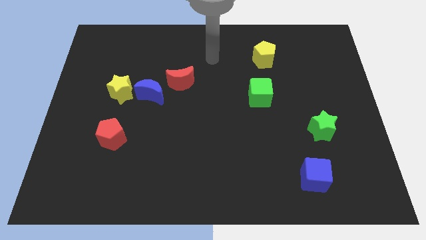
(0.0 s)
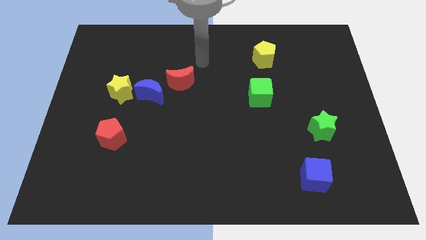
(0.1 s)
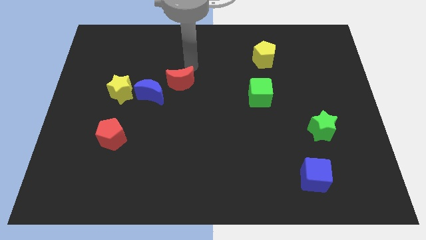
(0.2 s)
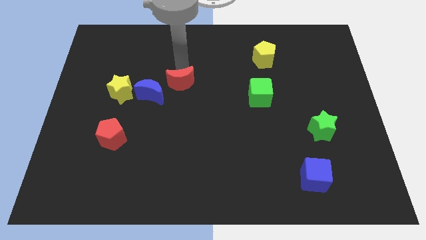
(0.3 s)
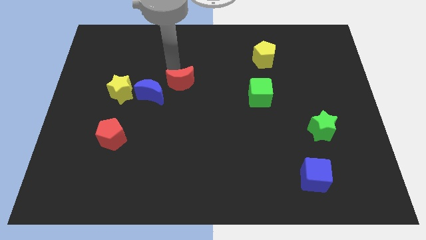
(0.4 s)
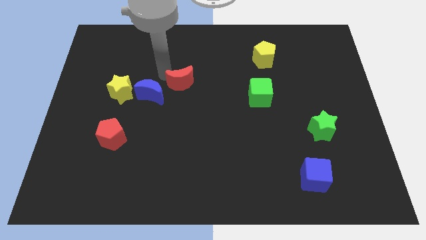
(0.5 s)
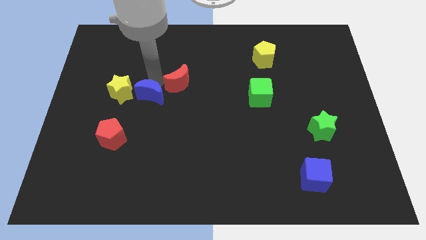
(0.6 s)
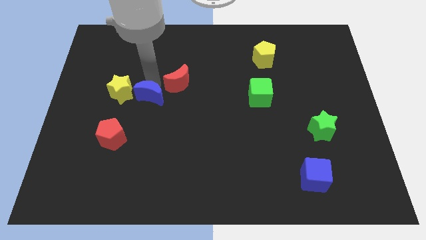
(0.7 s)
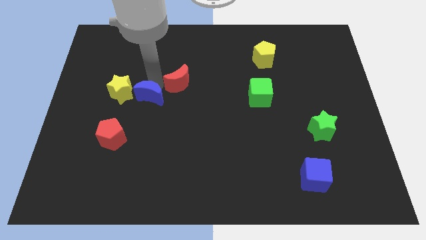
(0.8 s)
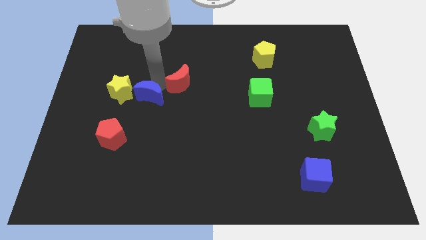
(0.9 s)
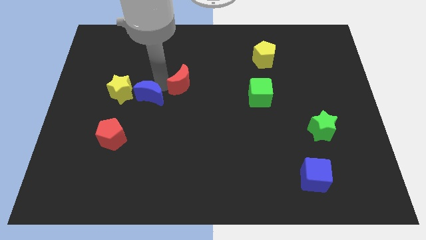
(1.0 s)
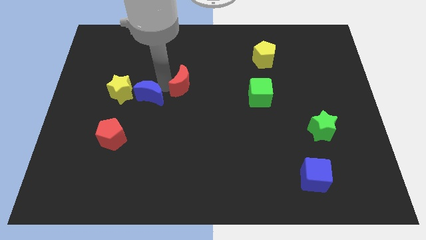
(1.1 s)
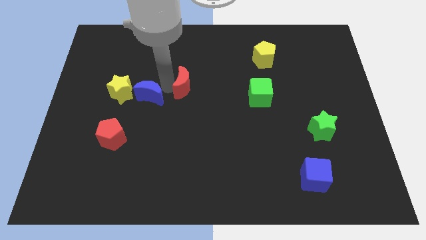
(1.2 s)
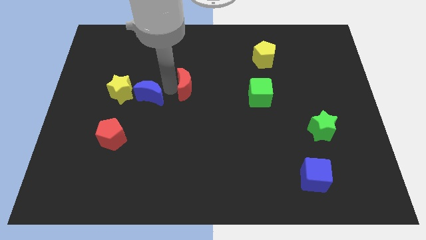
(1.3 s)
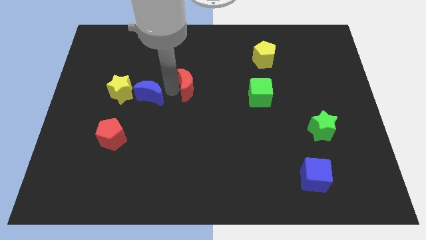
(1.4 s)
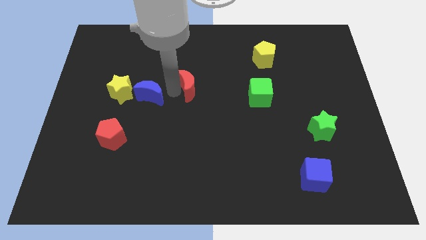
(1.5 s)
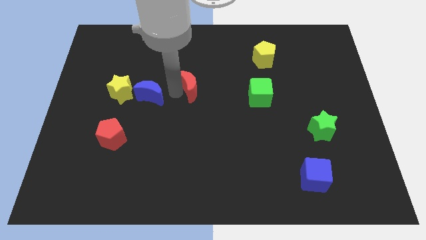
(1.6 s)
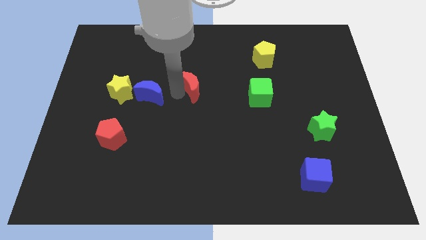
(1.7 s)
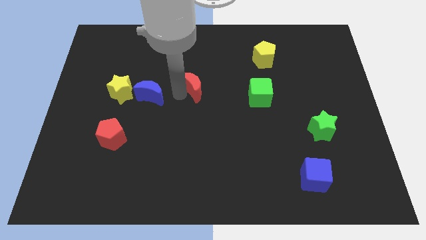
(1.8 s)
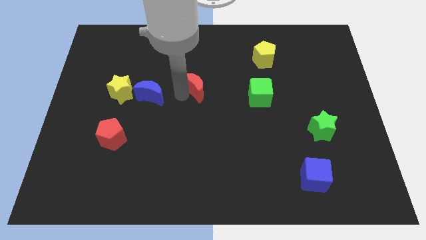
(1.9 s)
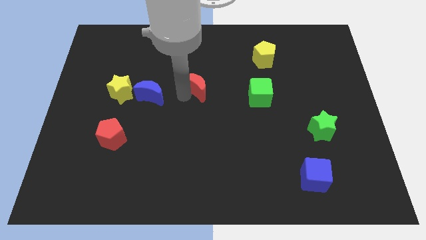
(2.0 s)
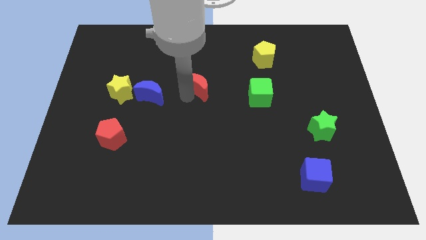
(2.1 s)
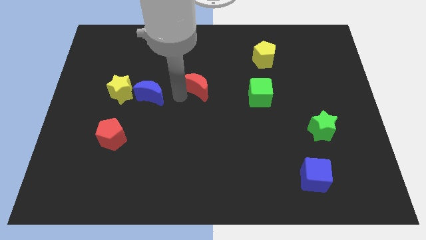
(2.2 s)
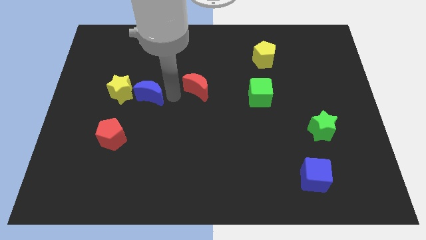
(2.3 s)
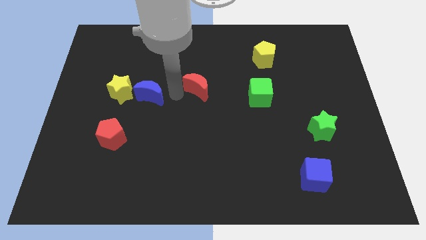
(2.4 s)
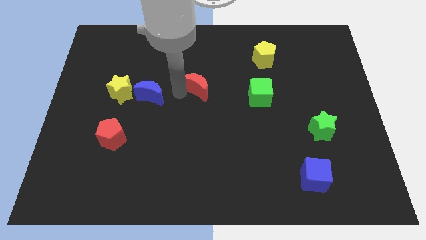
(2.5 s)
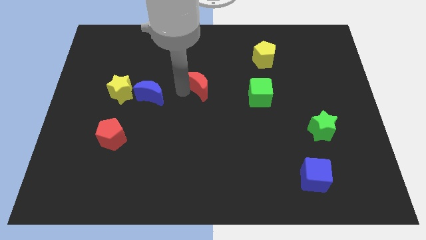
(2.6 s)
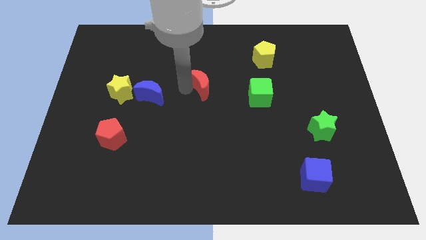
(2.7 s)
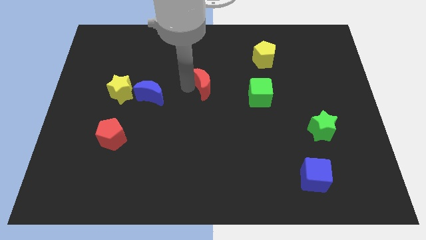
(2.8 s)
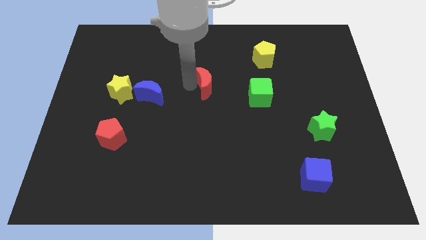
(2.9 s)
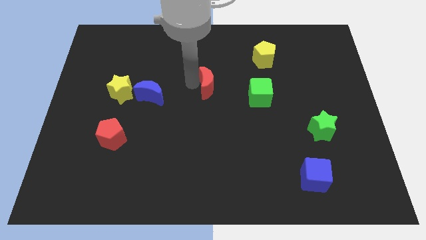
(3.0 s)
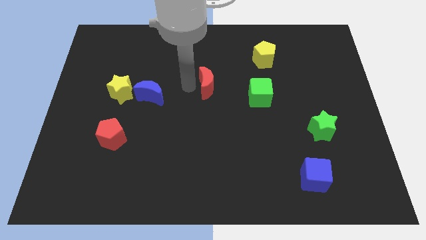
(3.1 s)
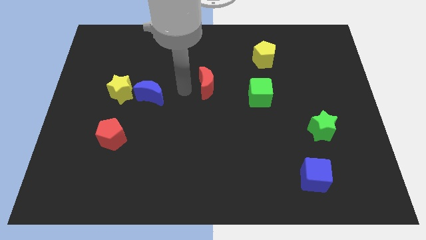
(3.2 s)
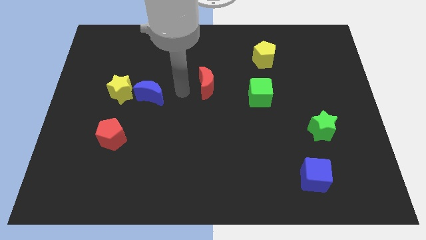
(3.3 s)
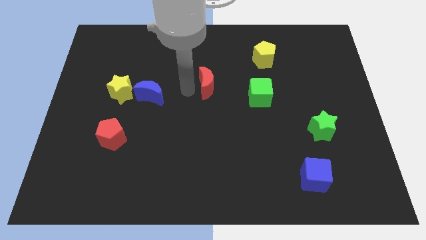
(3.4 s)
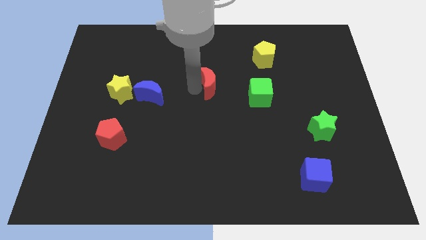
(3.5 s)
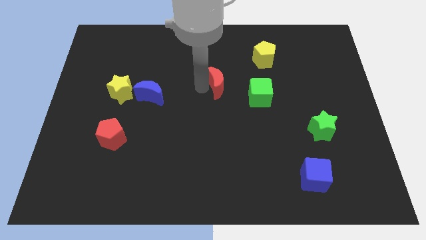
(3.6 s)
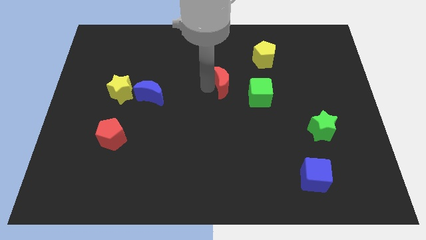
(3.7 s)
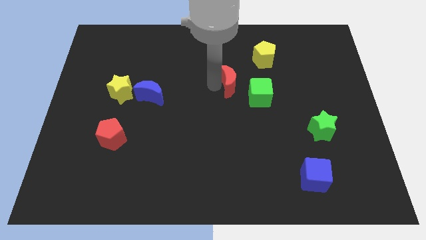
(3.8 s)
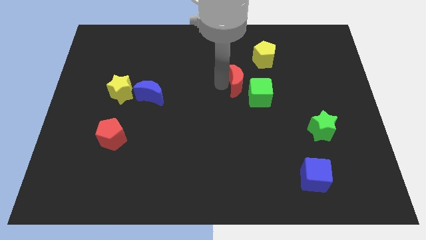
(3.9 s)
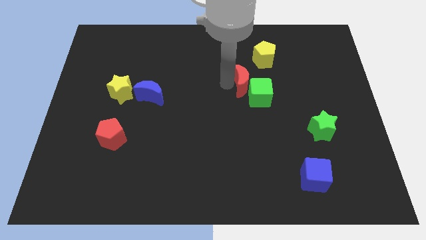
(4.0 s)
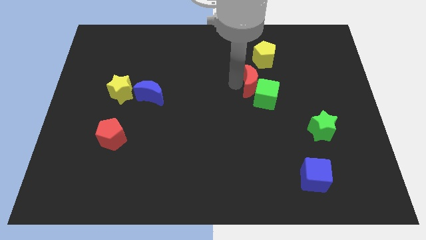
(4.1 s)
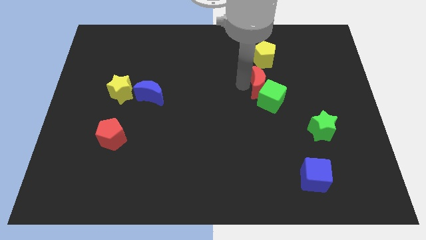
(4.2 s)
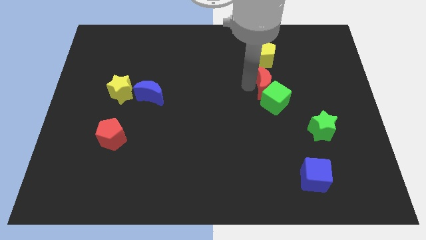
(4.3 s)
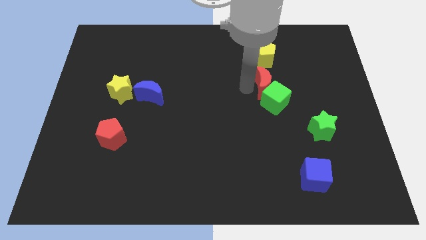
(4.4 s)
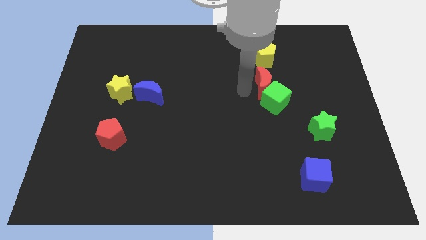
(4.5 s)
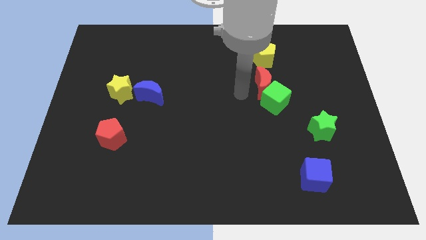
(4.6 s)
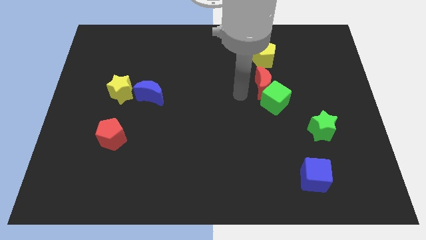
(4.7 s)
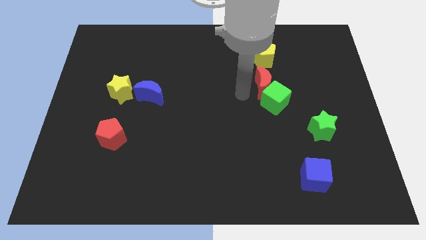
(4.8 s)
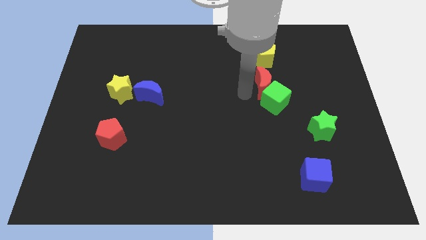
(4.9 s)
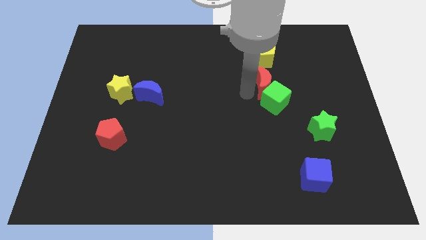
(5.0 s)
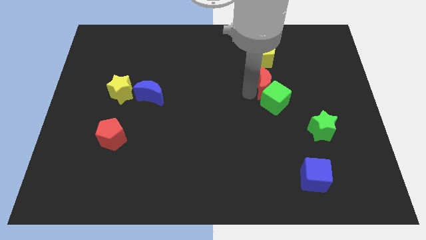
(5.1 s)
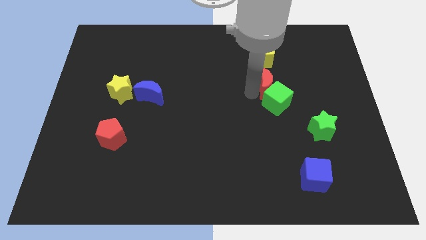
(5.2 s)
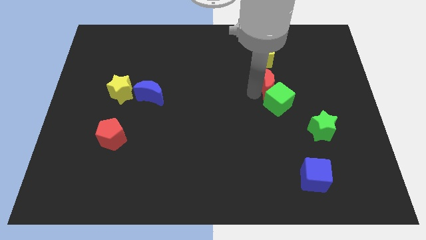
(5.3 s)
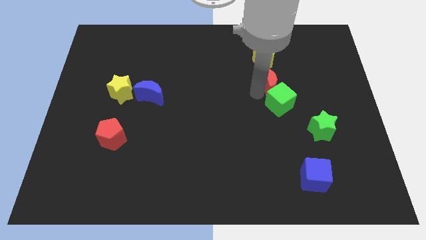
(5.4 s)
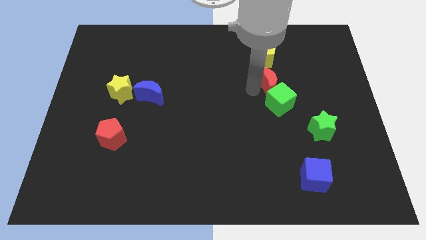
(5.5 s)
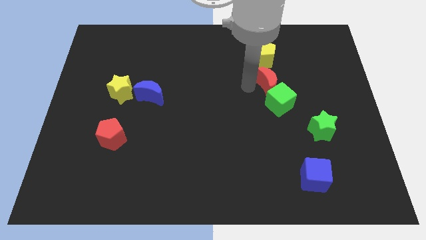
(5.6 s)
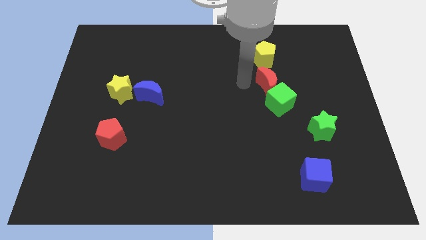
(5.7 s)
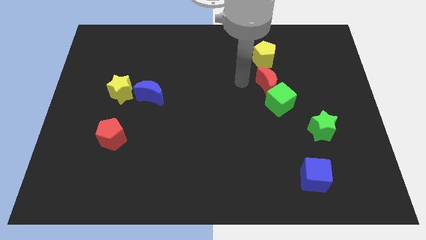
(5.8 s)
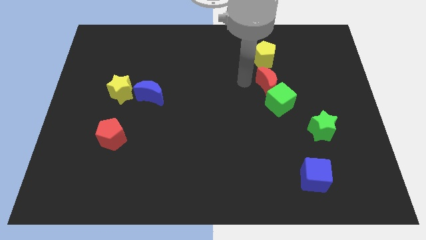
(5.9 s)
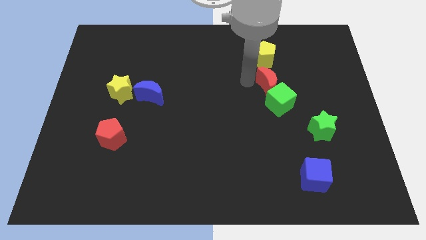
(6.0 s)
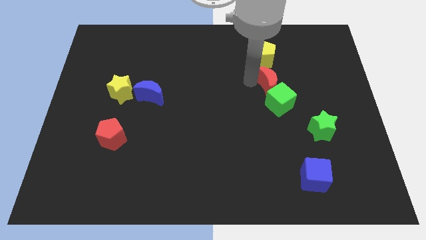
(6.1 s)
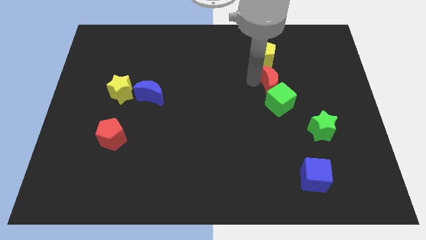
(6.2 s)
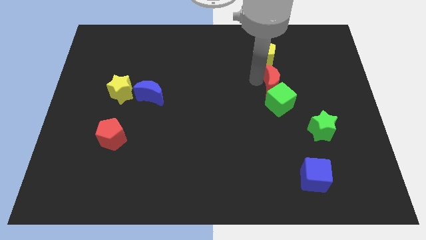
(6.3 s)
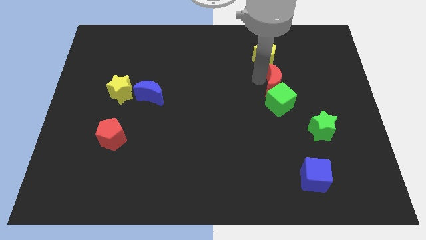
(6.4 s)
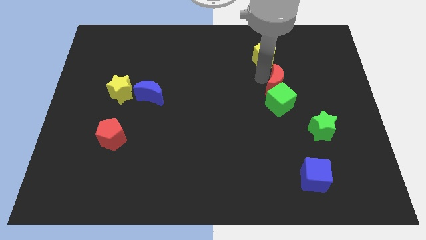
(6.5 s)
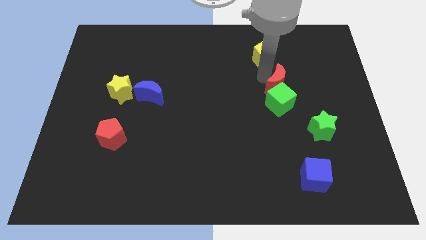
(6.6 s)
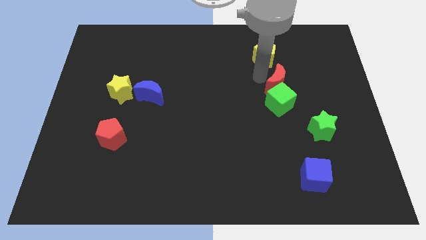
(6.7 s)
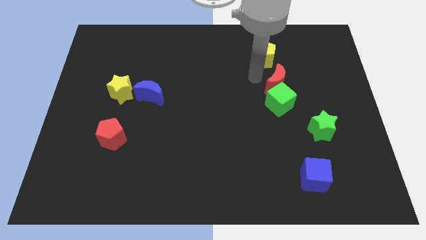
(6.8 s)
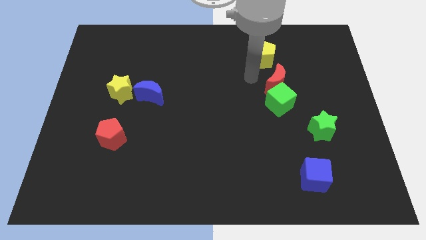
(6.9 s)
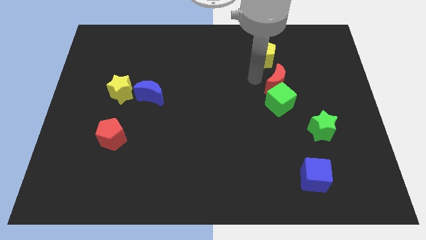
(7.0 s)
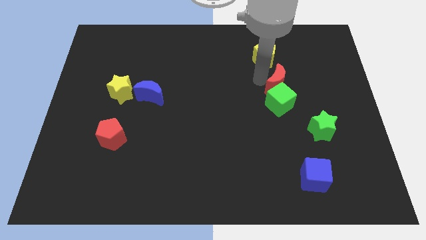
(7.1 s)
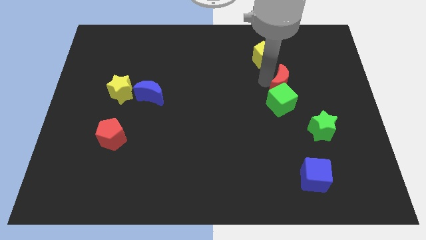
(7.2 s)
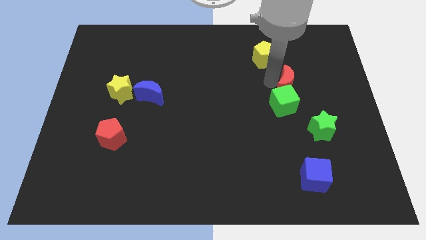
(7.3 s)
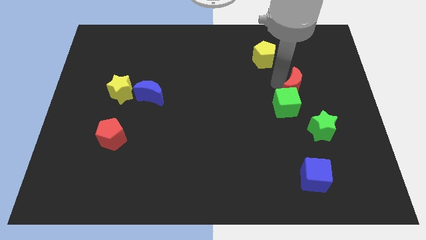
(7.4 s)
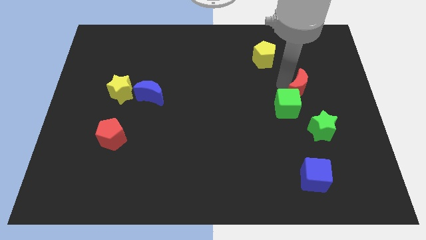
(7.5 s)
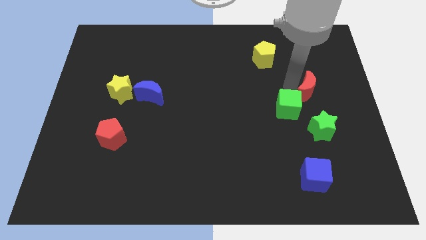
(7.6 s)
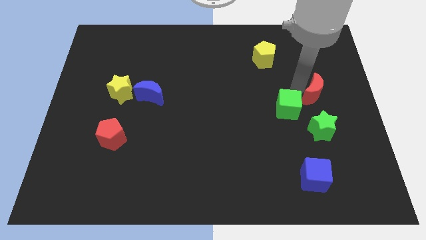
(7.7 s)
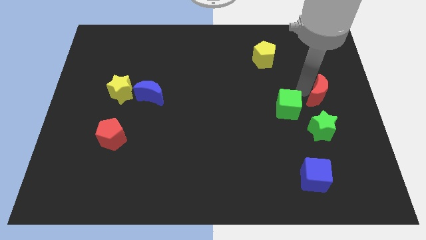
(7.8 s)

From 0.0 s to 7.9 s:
push the red moon to the right side of the board
